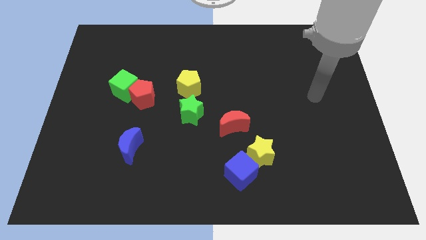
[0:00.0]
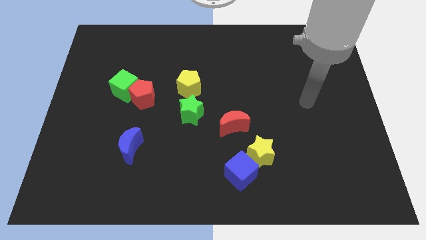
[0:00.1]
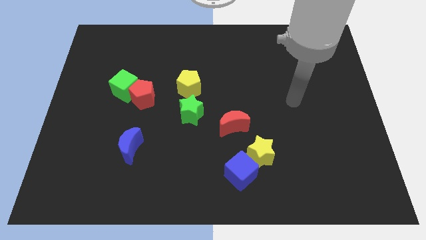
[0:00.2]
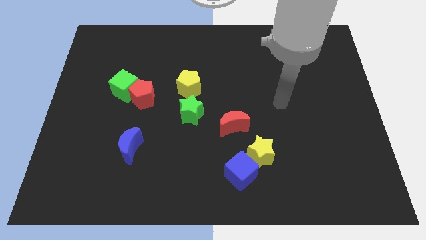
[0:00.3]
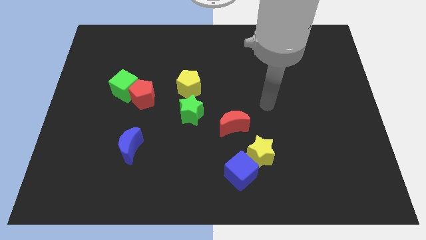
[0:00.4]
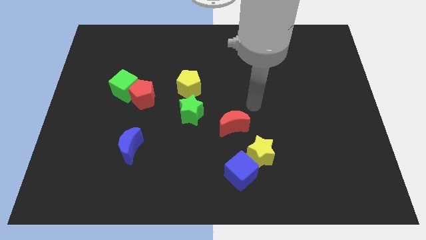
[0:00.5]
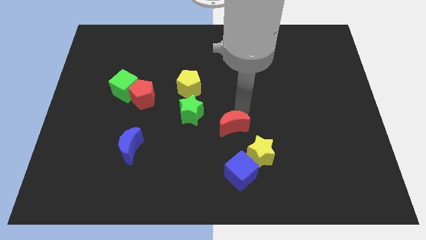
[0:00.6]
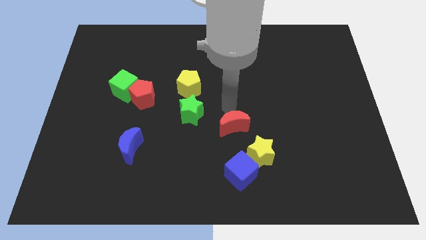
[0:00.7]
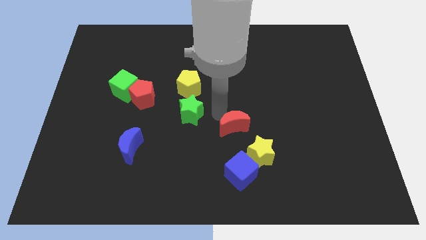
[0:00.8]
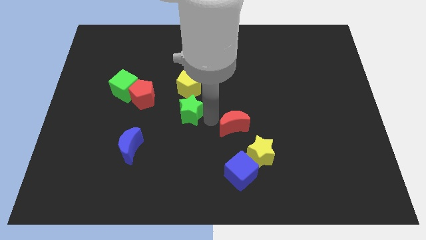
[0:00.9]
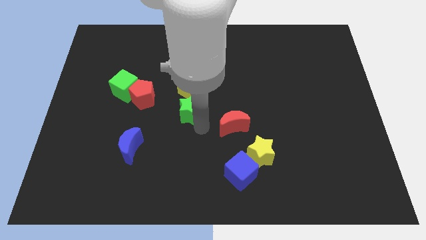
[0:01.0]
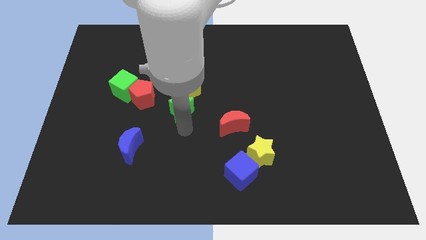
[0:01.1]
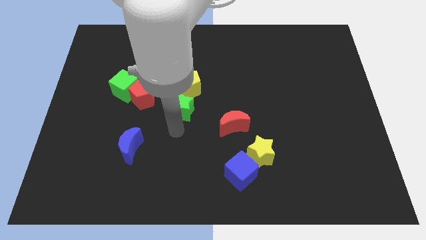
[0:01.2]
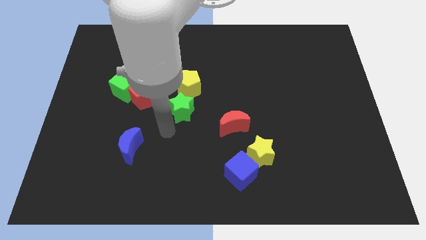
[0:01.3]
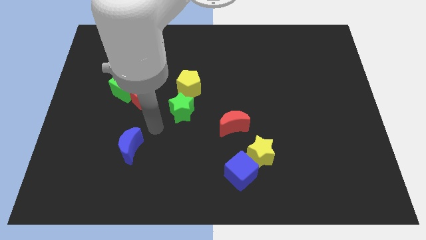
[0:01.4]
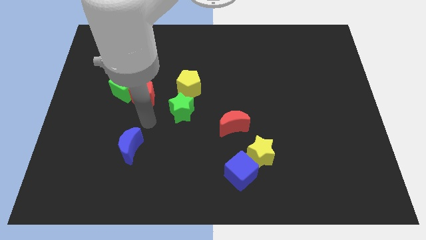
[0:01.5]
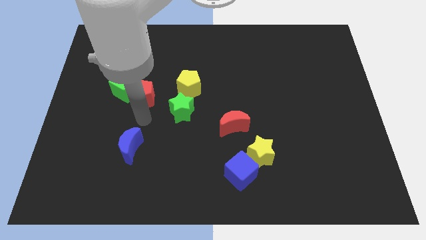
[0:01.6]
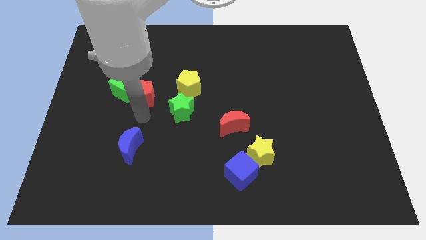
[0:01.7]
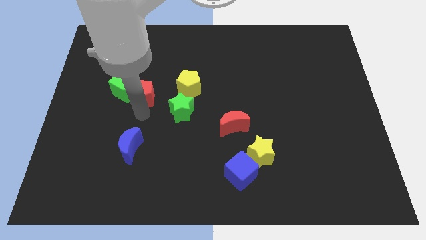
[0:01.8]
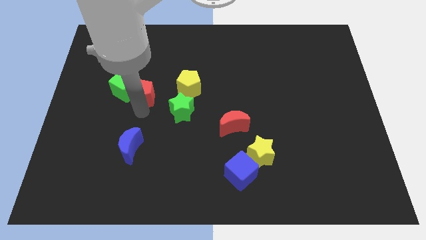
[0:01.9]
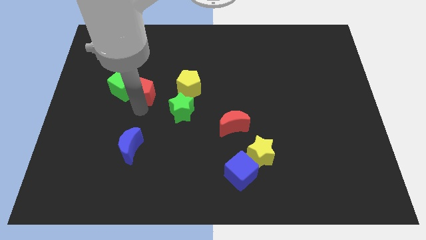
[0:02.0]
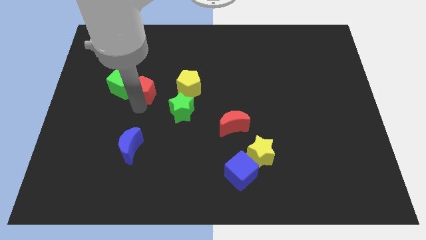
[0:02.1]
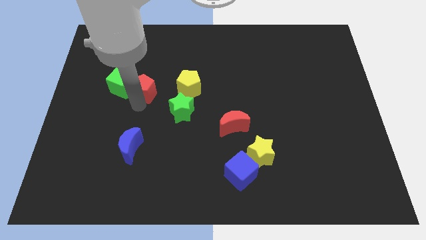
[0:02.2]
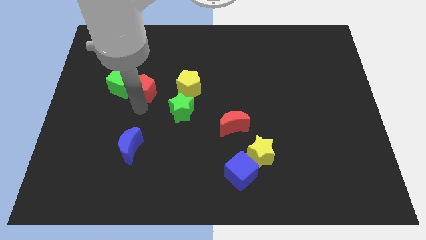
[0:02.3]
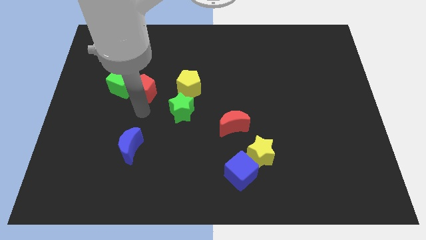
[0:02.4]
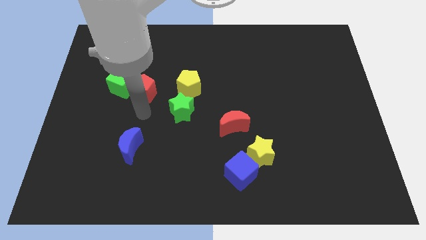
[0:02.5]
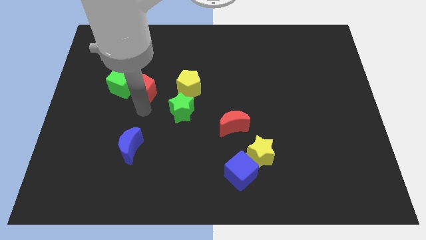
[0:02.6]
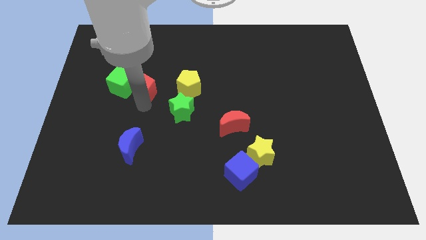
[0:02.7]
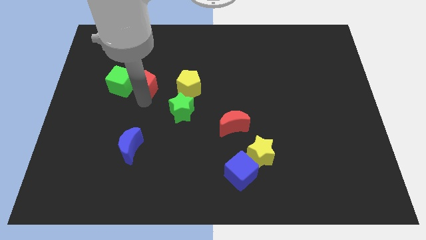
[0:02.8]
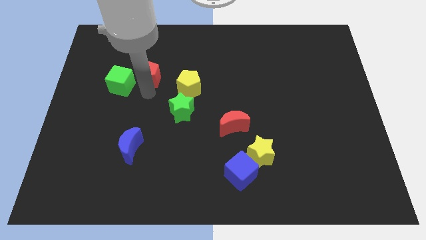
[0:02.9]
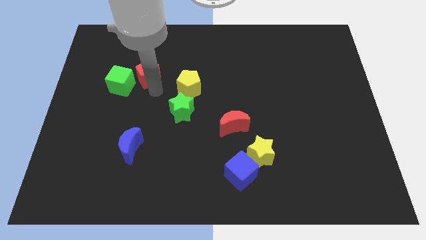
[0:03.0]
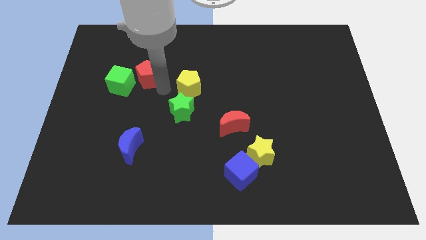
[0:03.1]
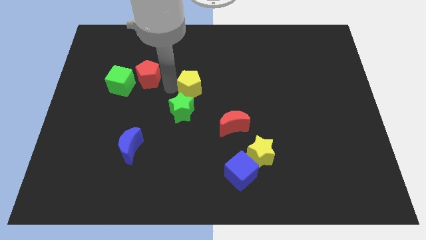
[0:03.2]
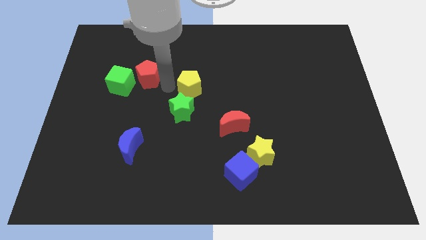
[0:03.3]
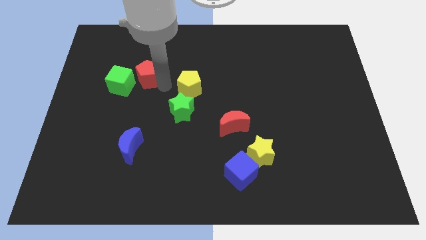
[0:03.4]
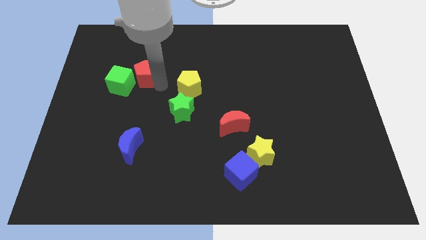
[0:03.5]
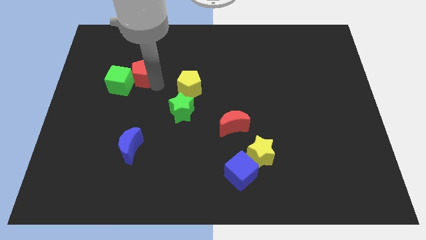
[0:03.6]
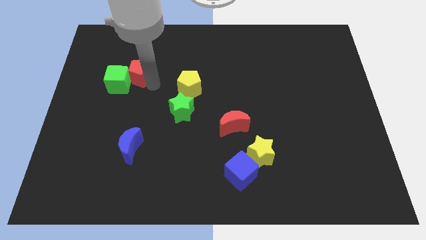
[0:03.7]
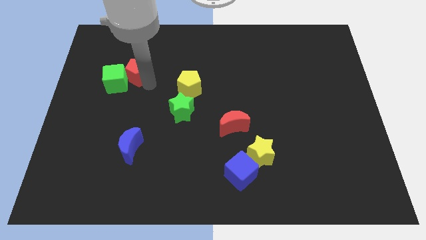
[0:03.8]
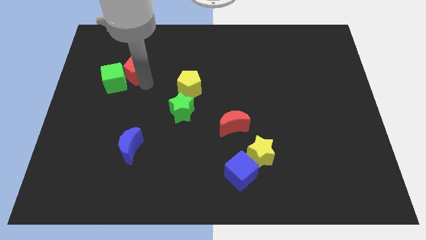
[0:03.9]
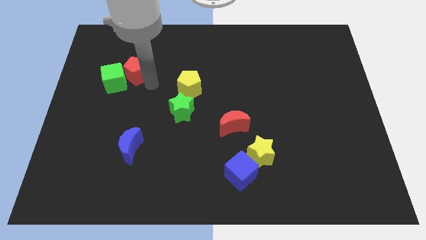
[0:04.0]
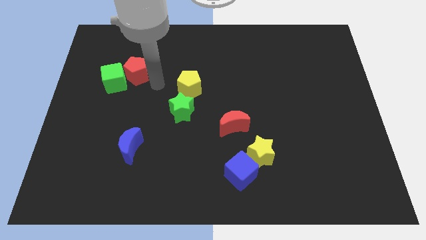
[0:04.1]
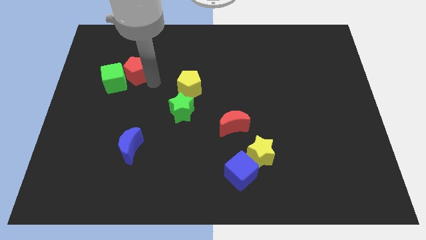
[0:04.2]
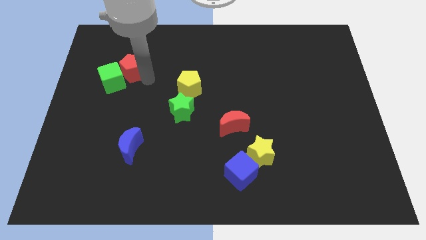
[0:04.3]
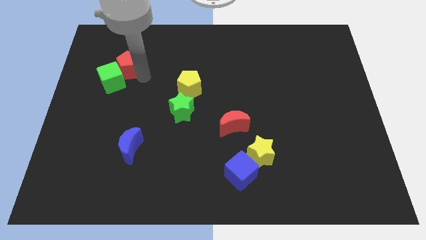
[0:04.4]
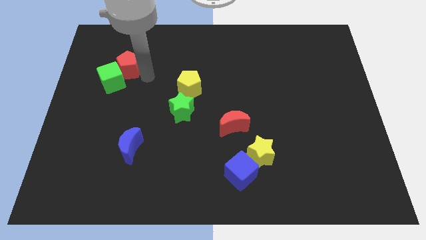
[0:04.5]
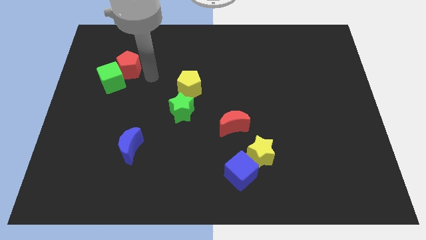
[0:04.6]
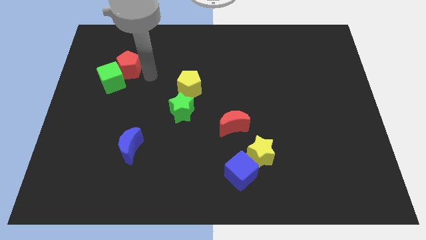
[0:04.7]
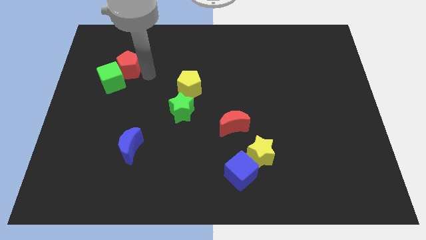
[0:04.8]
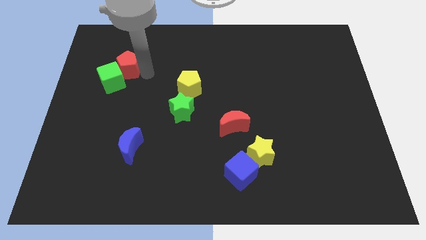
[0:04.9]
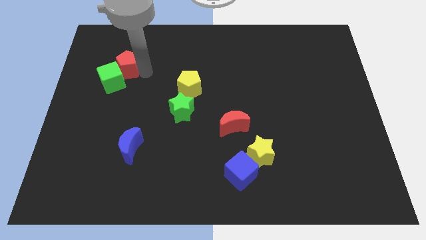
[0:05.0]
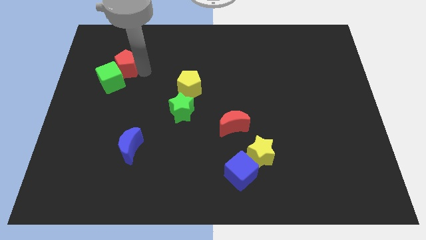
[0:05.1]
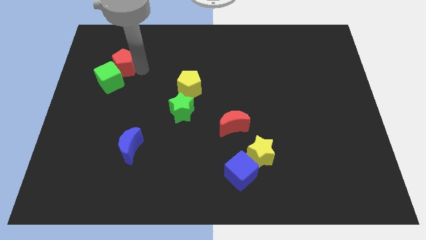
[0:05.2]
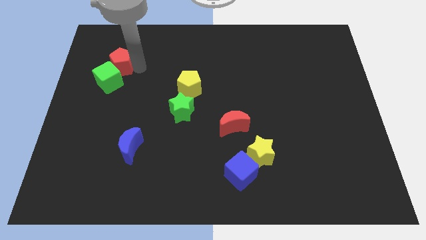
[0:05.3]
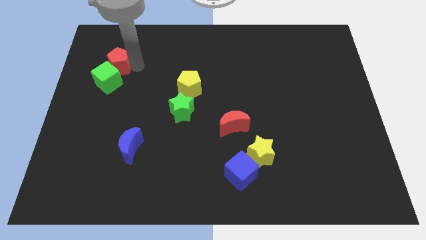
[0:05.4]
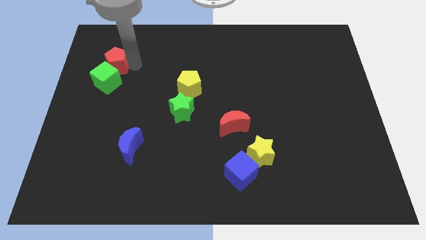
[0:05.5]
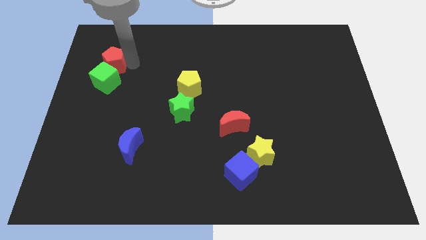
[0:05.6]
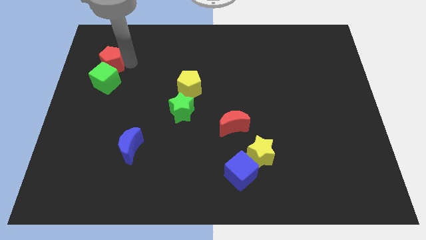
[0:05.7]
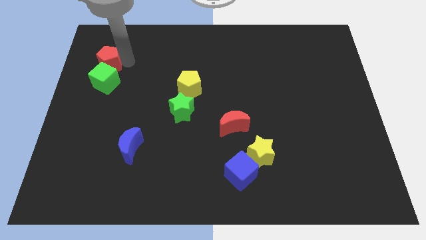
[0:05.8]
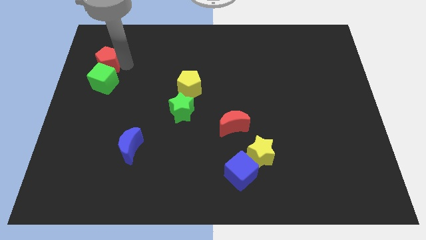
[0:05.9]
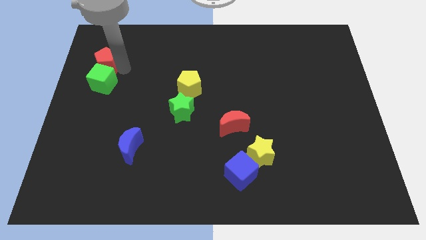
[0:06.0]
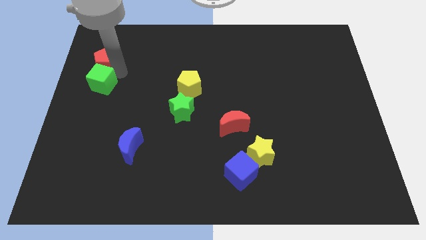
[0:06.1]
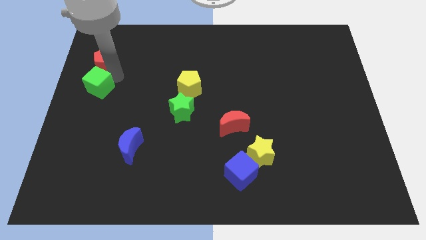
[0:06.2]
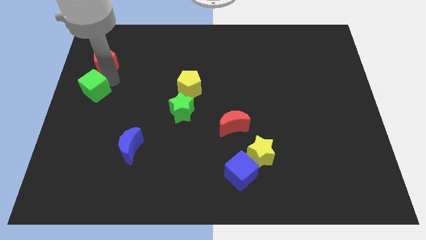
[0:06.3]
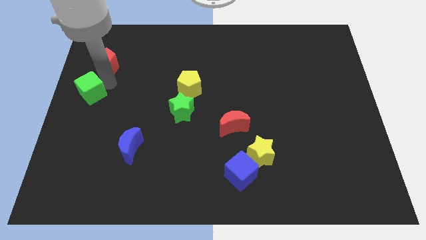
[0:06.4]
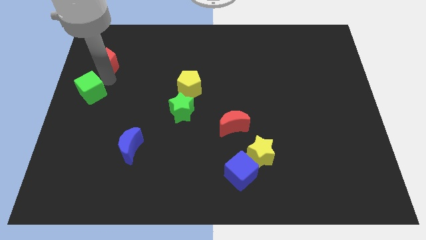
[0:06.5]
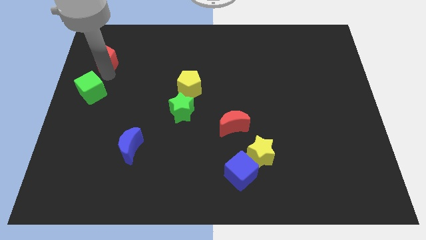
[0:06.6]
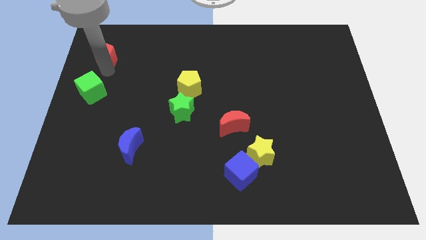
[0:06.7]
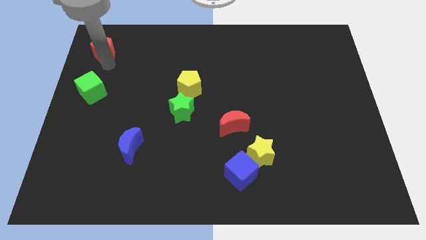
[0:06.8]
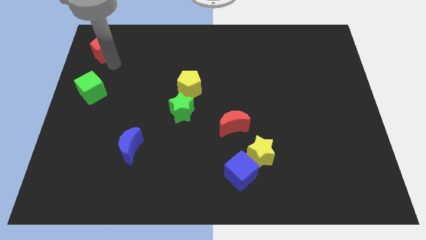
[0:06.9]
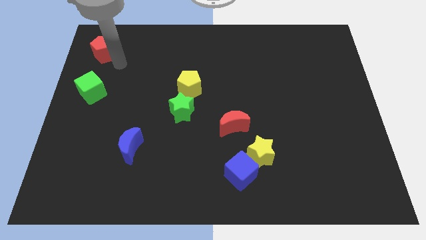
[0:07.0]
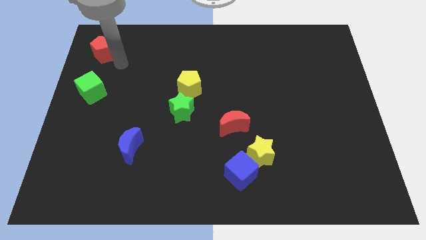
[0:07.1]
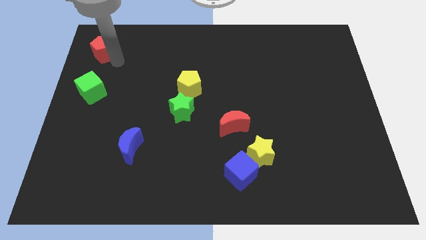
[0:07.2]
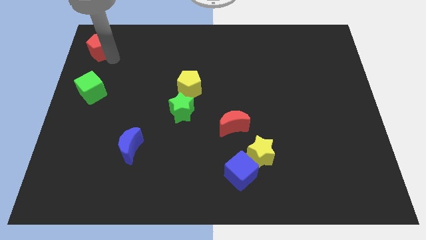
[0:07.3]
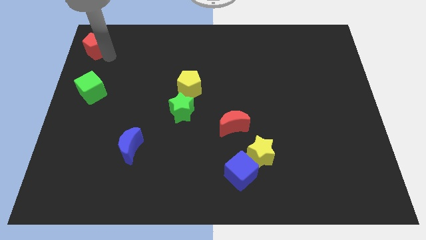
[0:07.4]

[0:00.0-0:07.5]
move the red pentagon to the top left
